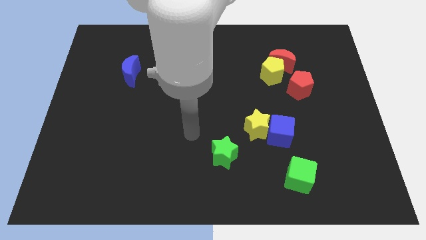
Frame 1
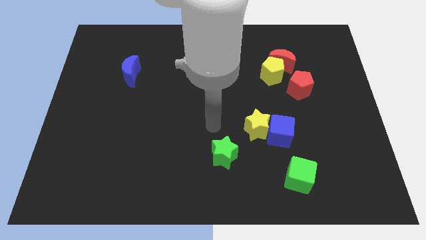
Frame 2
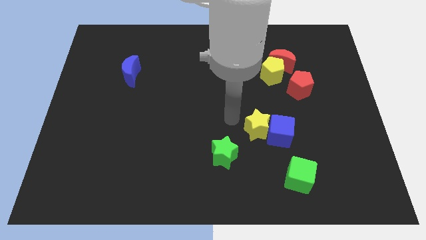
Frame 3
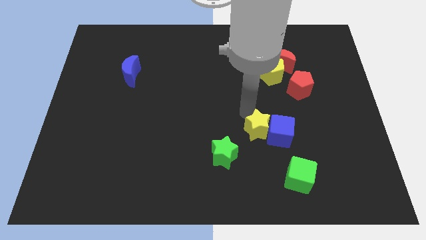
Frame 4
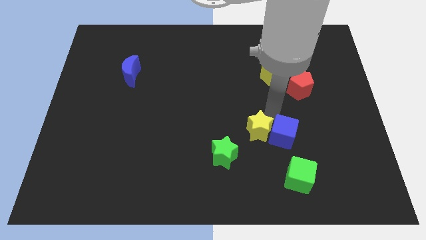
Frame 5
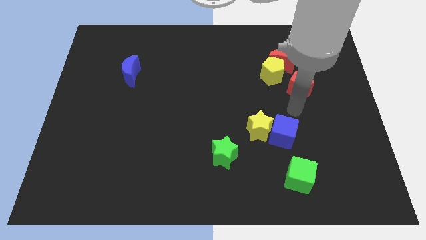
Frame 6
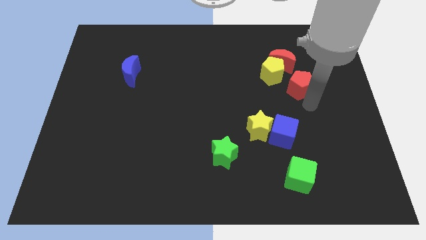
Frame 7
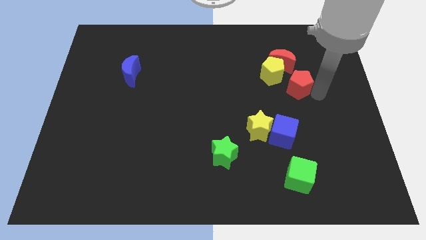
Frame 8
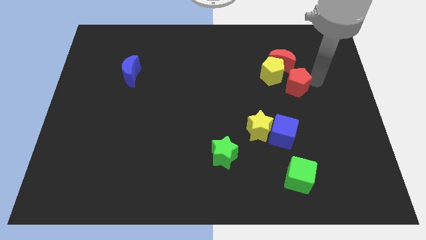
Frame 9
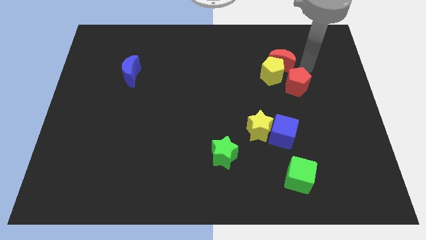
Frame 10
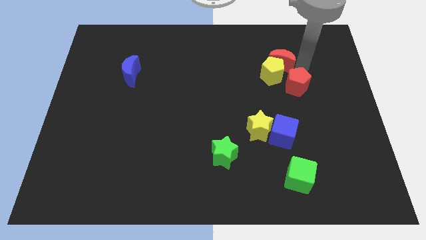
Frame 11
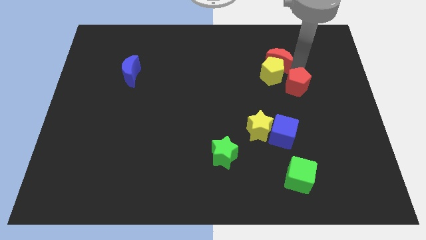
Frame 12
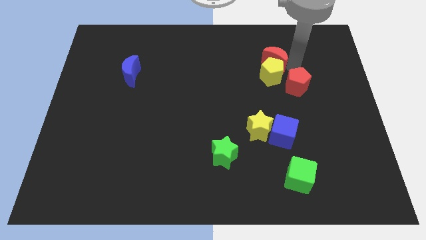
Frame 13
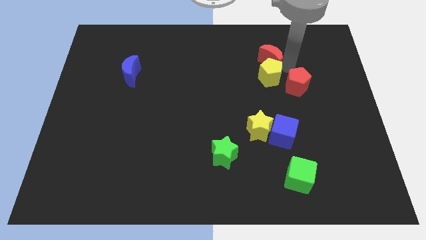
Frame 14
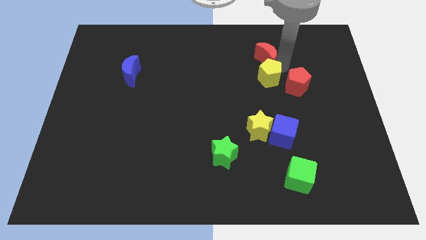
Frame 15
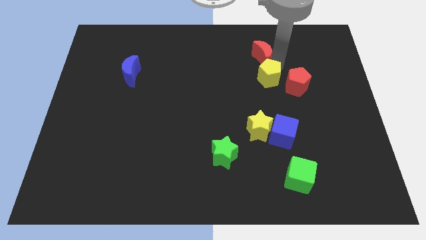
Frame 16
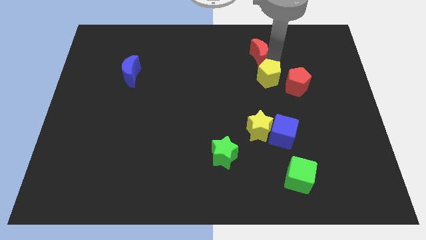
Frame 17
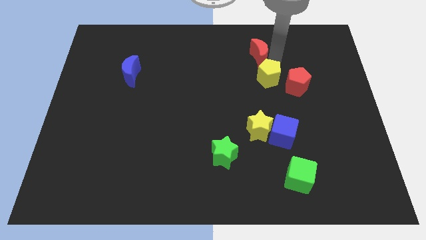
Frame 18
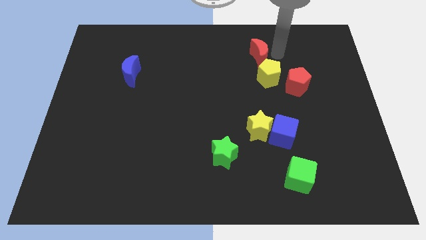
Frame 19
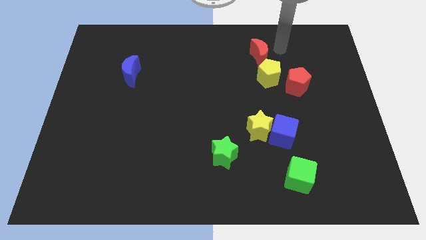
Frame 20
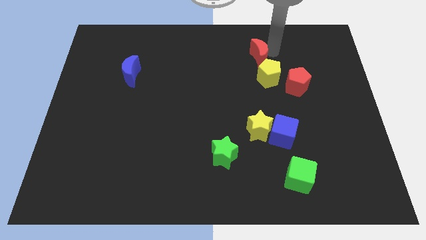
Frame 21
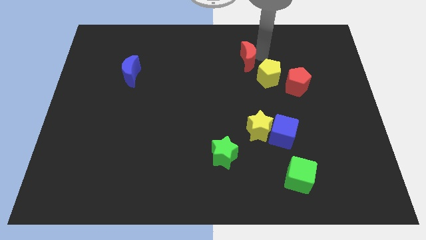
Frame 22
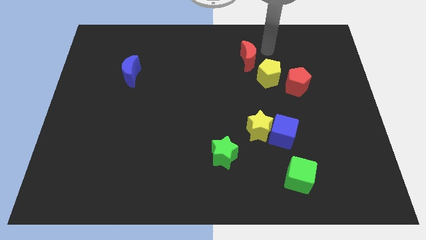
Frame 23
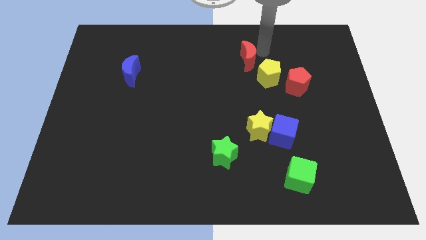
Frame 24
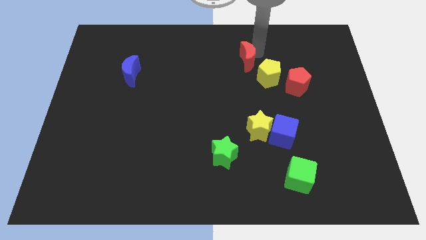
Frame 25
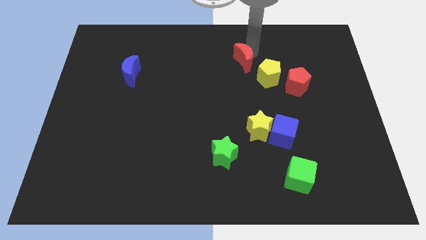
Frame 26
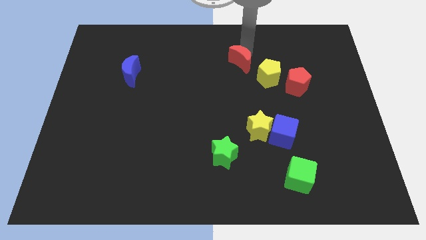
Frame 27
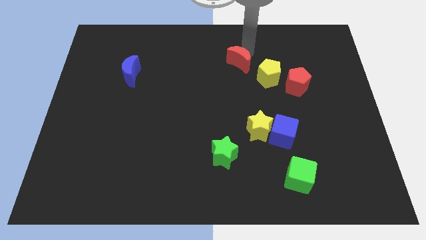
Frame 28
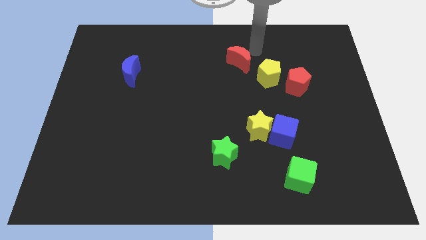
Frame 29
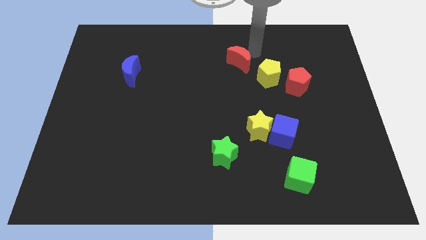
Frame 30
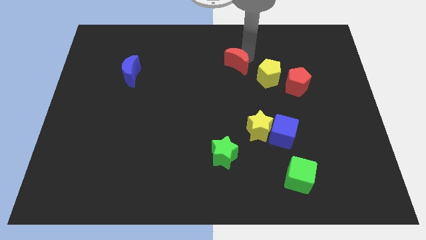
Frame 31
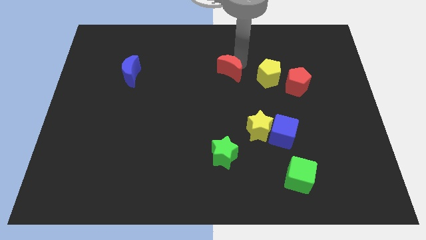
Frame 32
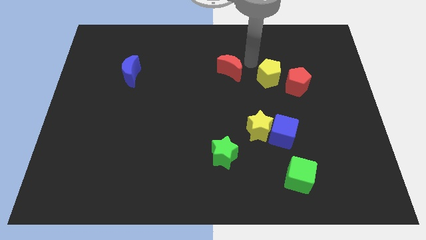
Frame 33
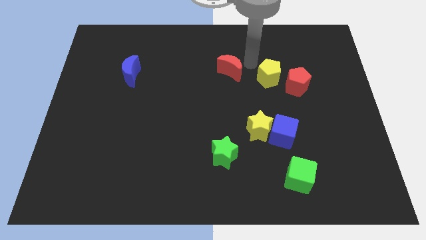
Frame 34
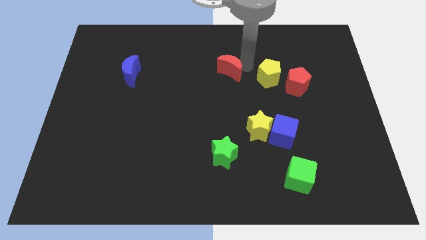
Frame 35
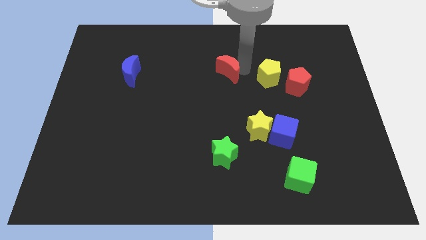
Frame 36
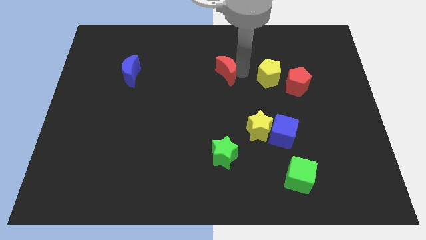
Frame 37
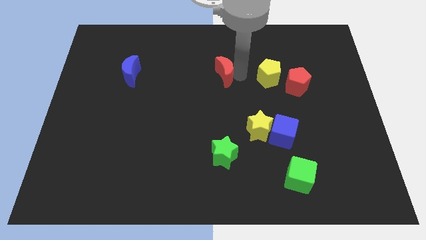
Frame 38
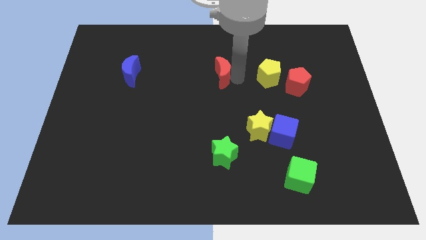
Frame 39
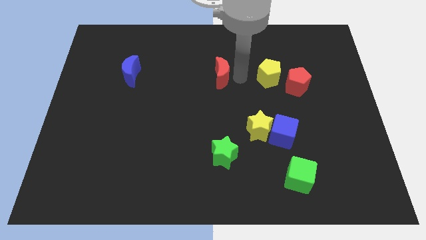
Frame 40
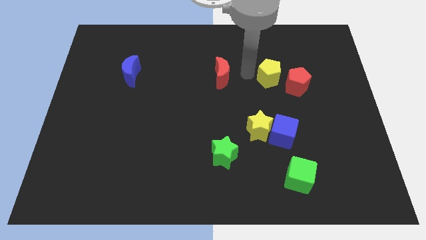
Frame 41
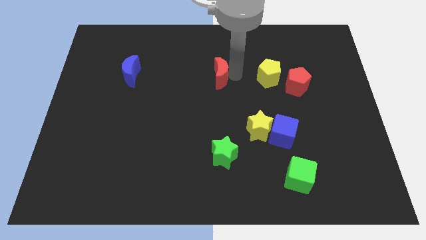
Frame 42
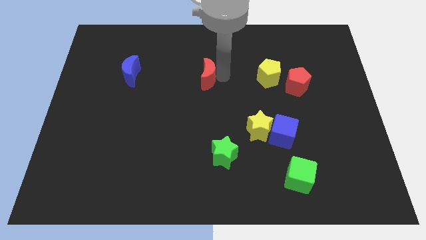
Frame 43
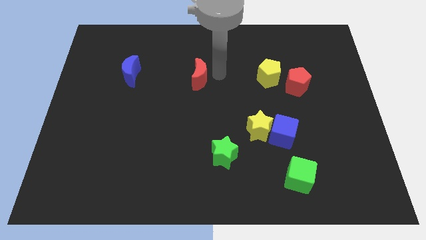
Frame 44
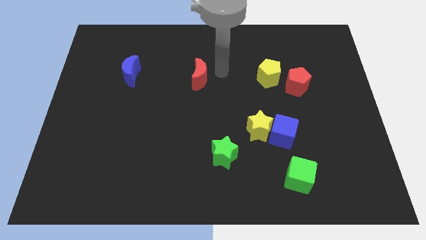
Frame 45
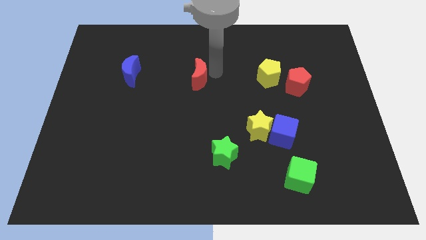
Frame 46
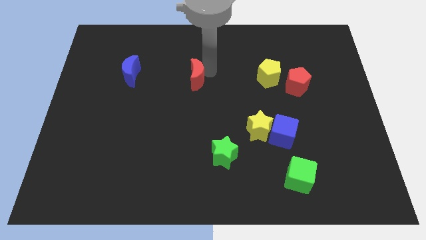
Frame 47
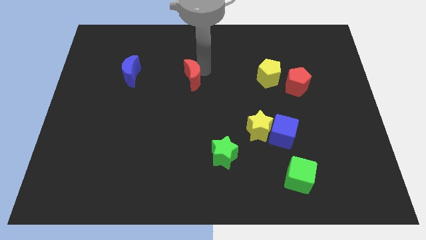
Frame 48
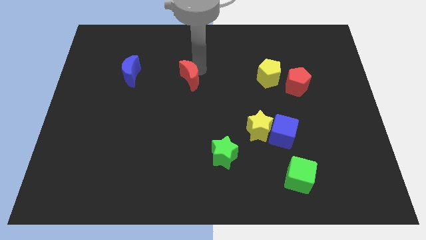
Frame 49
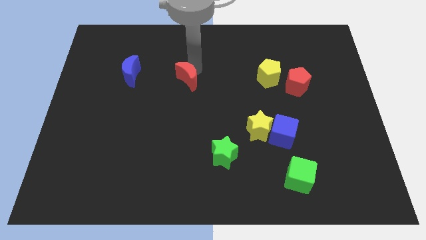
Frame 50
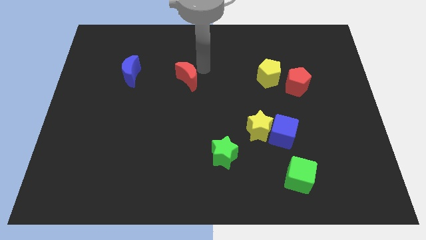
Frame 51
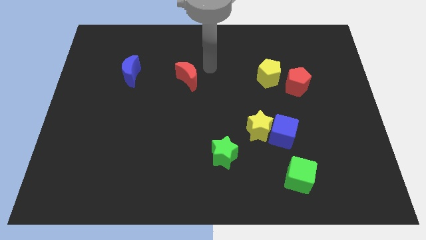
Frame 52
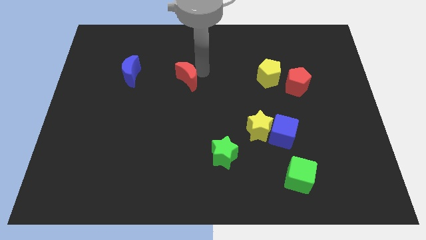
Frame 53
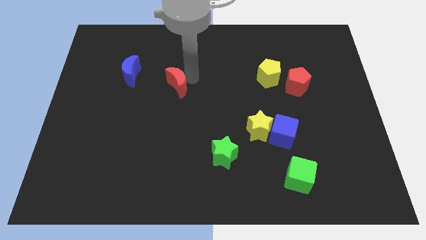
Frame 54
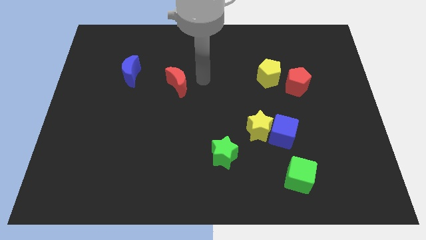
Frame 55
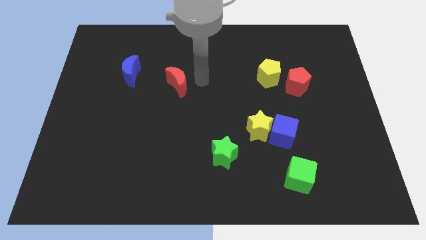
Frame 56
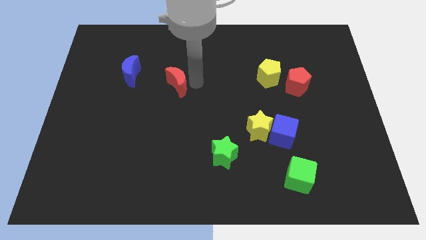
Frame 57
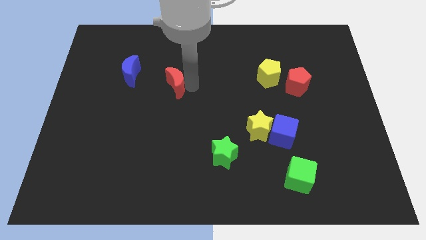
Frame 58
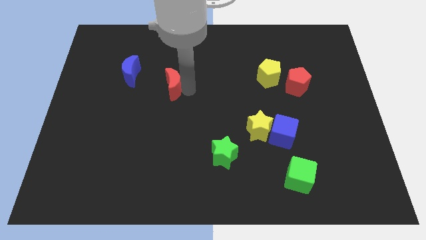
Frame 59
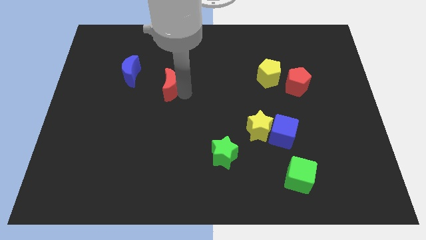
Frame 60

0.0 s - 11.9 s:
move the red moon to the bottom right of the blue moon

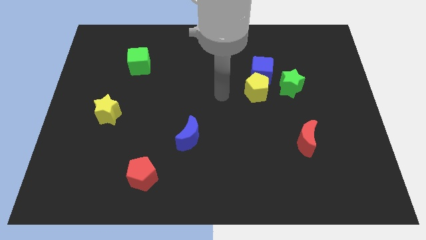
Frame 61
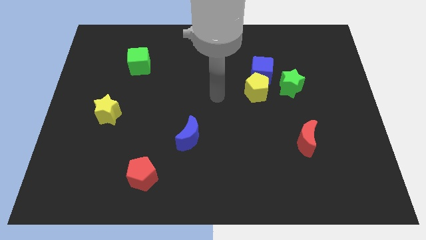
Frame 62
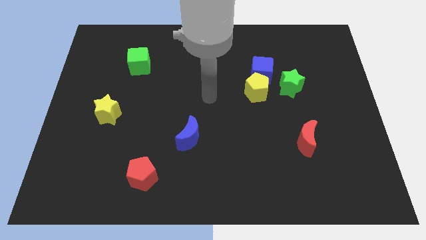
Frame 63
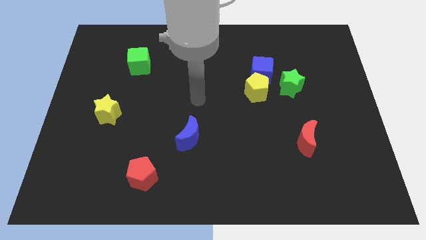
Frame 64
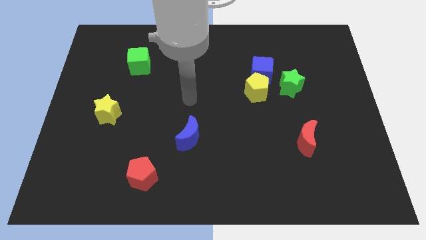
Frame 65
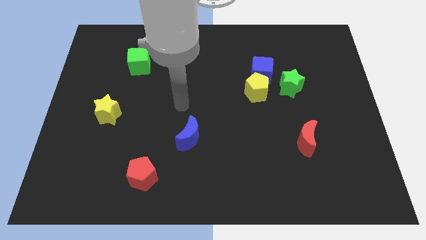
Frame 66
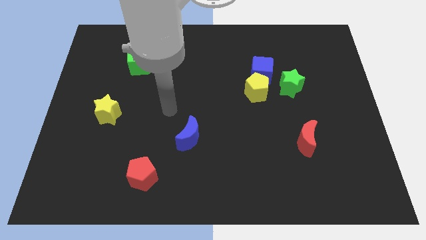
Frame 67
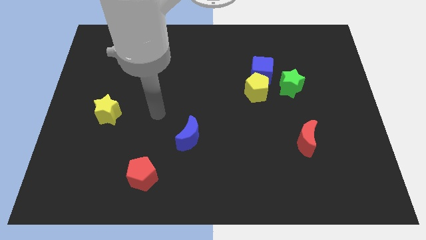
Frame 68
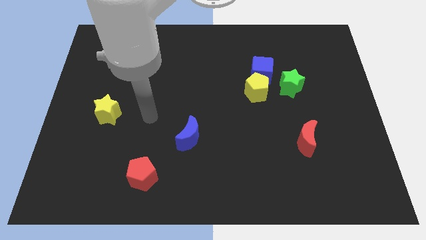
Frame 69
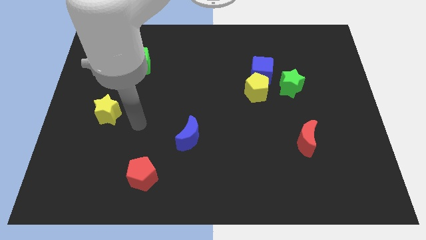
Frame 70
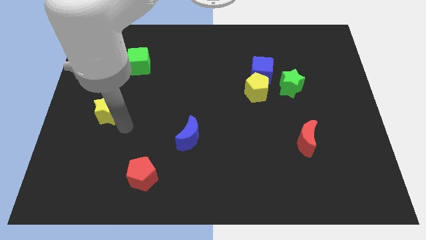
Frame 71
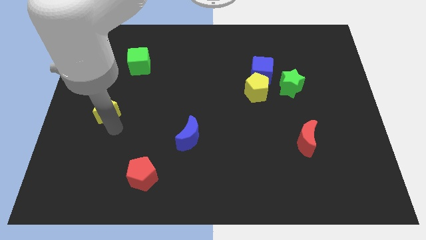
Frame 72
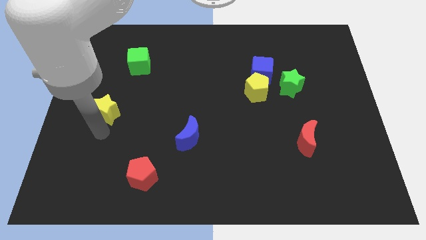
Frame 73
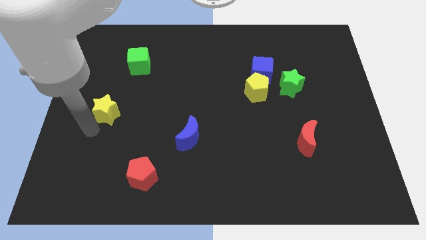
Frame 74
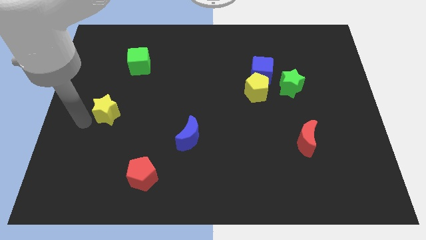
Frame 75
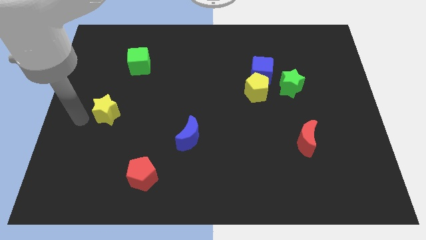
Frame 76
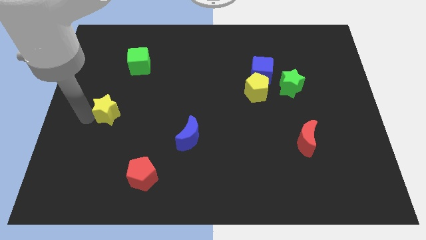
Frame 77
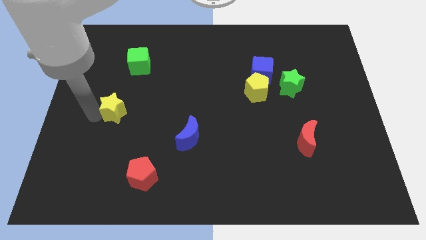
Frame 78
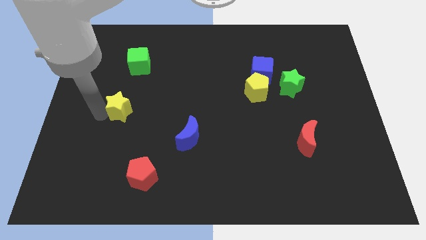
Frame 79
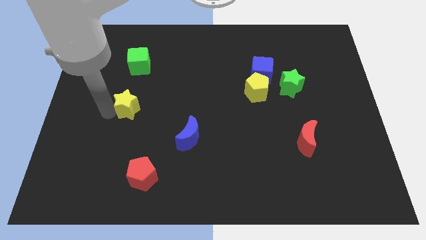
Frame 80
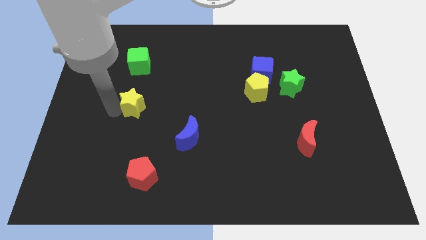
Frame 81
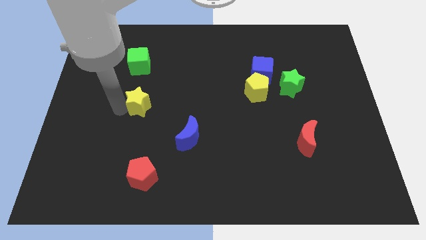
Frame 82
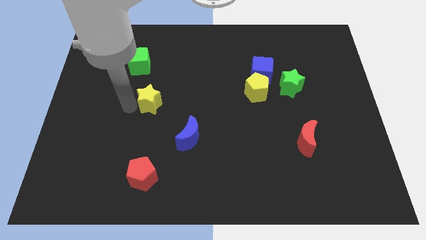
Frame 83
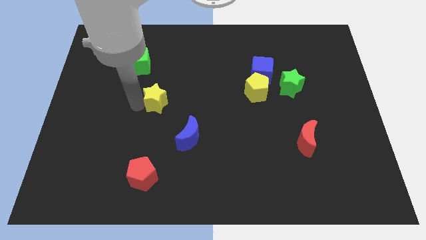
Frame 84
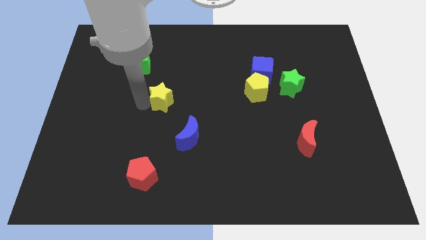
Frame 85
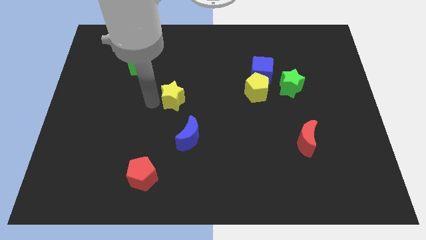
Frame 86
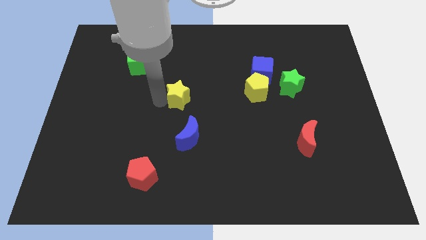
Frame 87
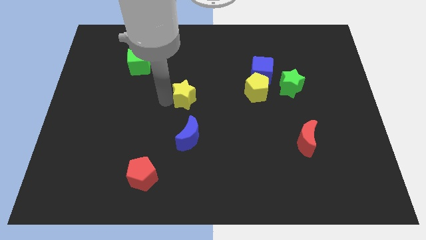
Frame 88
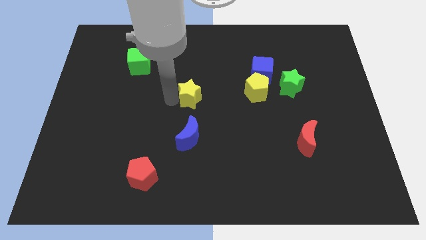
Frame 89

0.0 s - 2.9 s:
put the yellow star just left of the yellow pentagon
